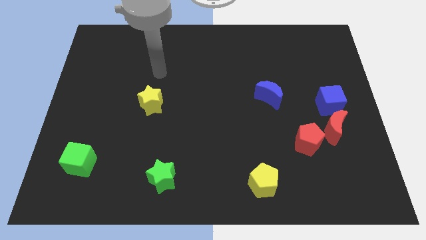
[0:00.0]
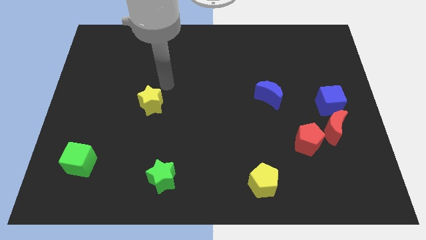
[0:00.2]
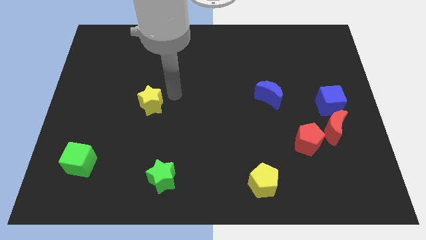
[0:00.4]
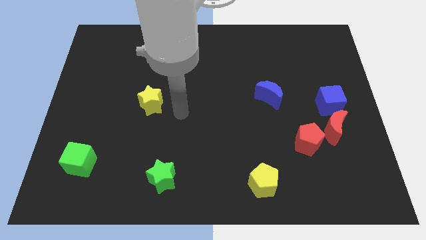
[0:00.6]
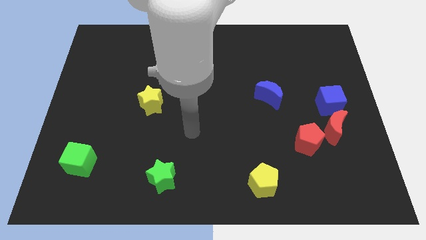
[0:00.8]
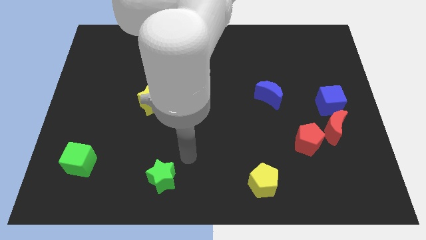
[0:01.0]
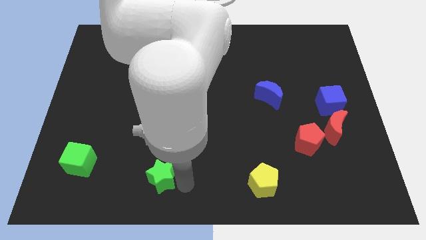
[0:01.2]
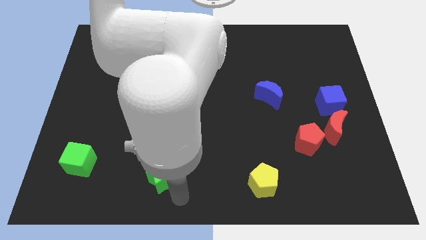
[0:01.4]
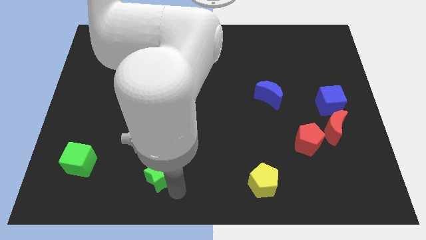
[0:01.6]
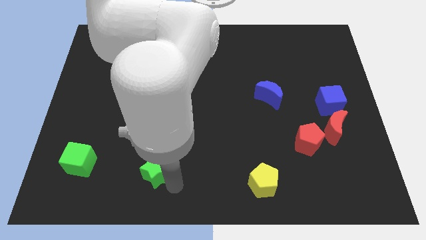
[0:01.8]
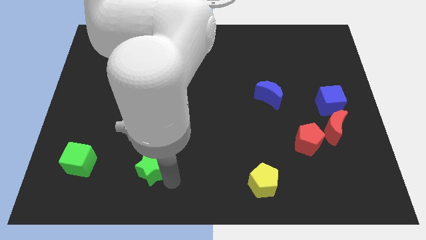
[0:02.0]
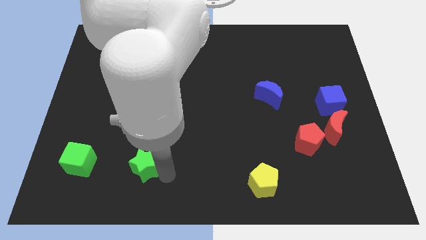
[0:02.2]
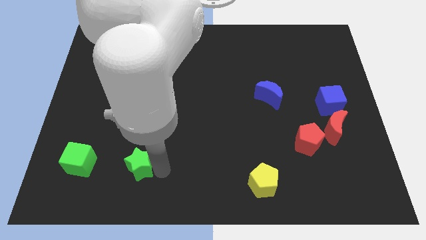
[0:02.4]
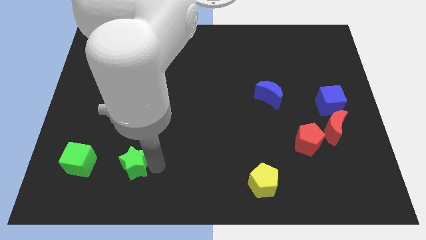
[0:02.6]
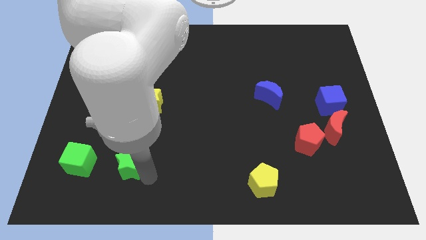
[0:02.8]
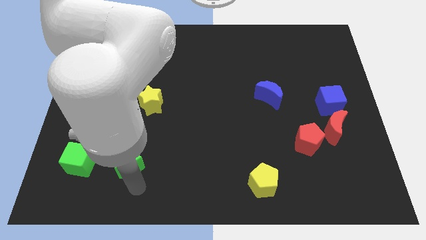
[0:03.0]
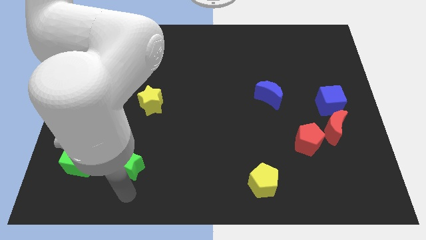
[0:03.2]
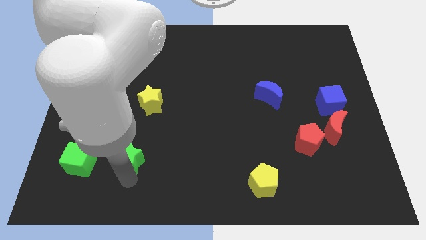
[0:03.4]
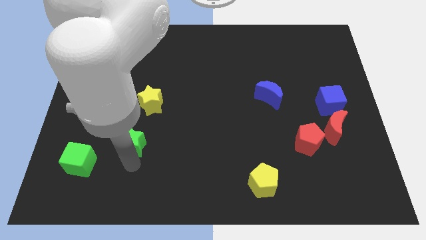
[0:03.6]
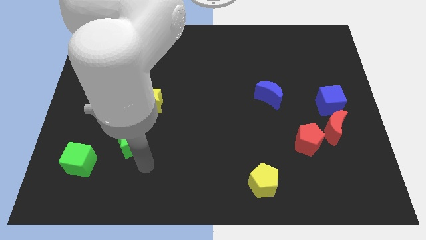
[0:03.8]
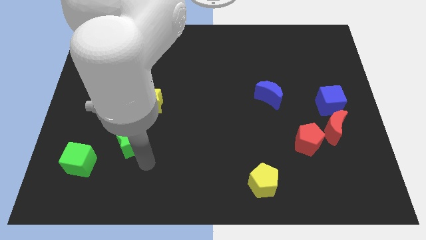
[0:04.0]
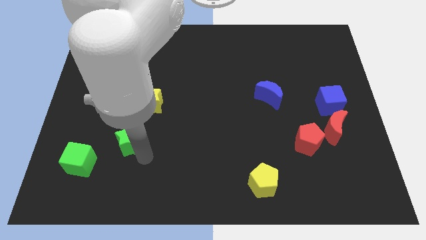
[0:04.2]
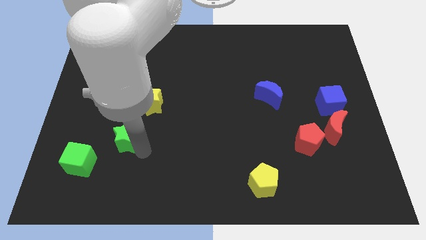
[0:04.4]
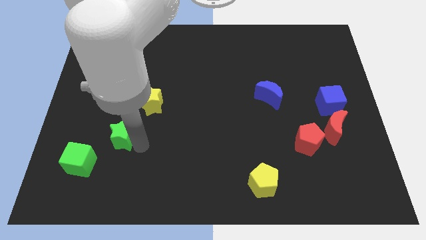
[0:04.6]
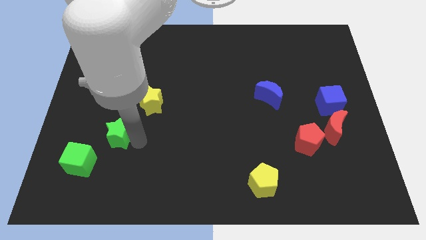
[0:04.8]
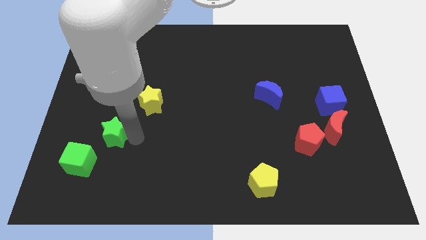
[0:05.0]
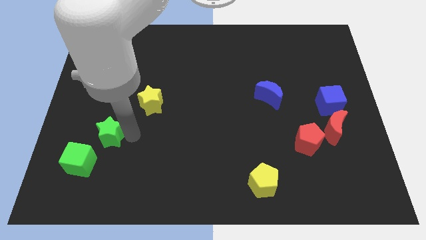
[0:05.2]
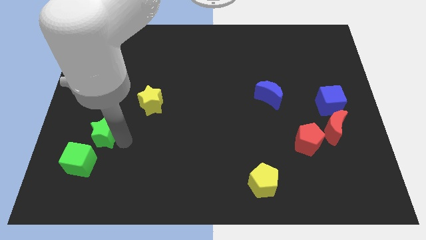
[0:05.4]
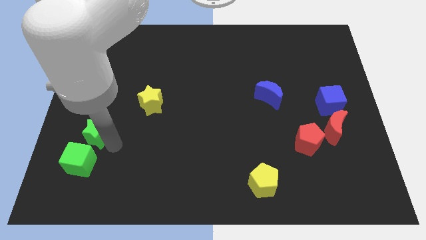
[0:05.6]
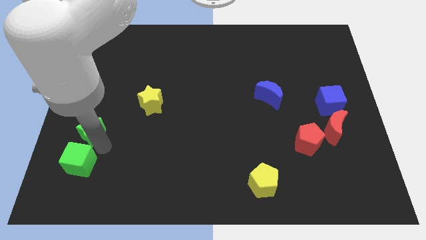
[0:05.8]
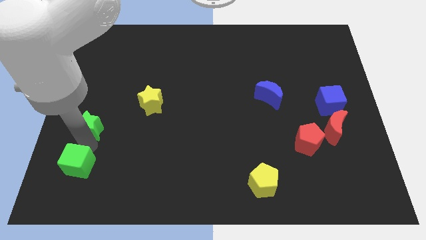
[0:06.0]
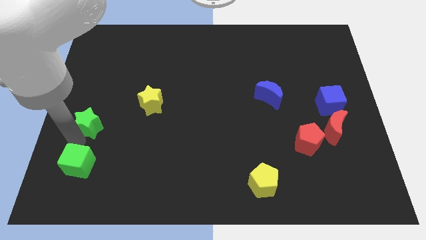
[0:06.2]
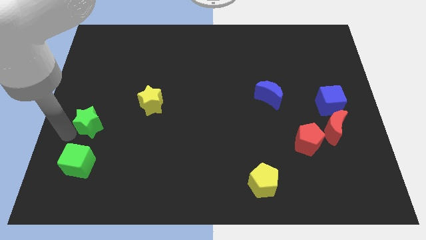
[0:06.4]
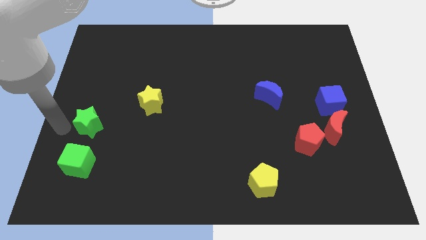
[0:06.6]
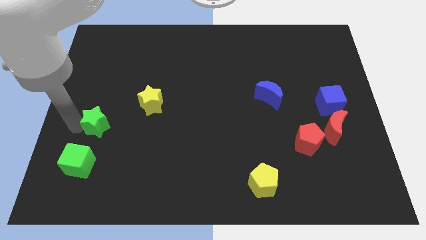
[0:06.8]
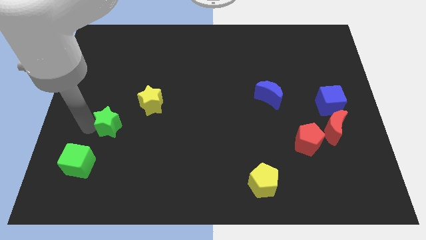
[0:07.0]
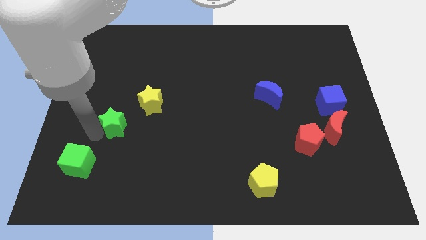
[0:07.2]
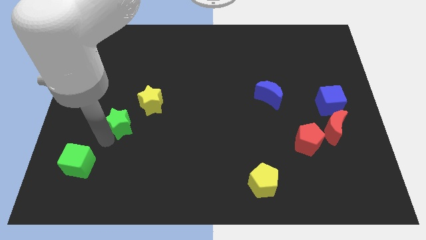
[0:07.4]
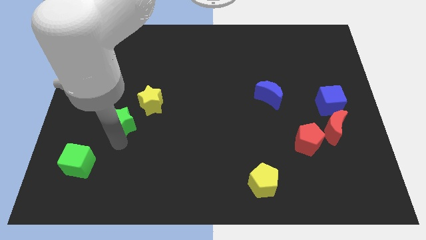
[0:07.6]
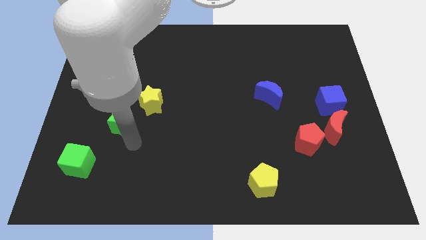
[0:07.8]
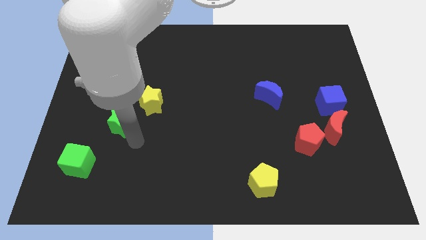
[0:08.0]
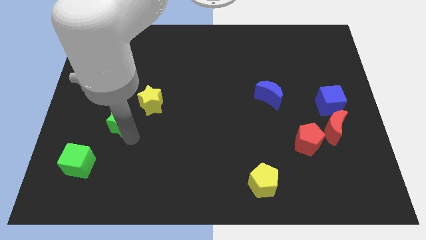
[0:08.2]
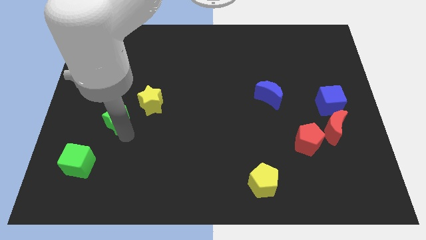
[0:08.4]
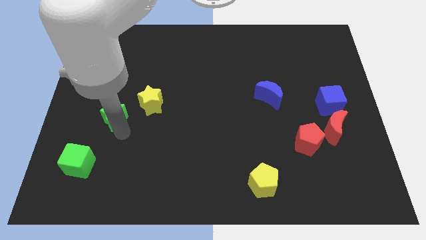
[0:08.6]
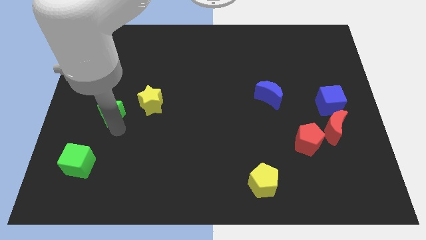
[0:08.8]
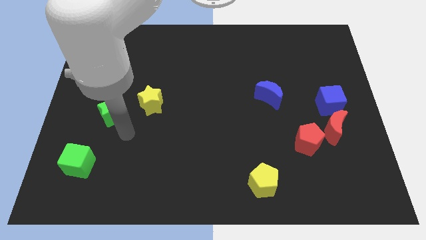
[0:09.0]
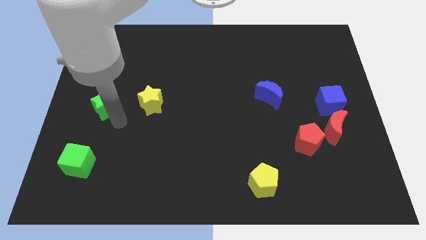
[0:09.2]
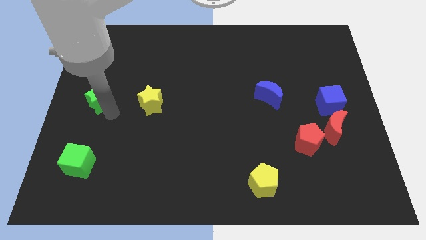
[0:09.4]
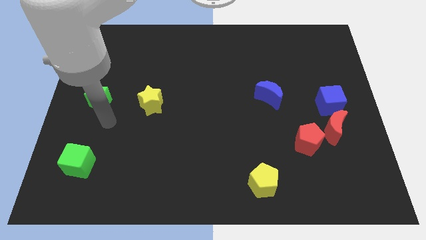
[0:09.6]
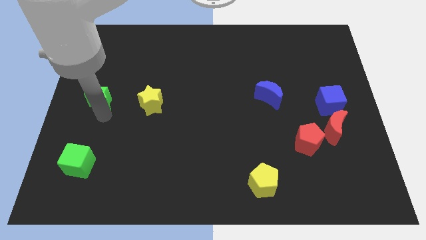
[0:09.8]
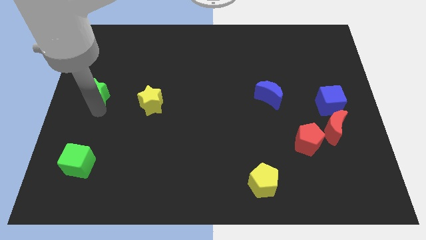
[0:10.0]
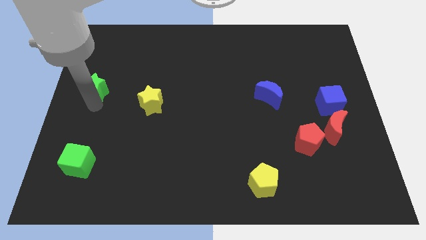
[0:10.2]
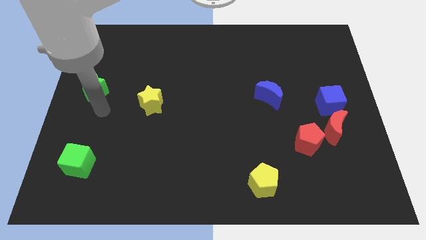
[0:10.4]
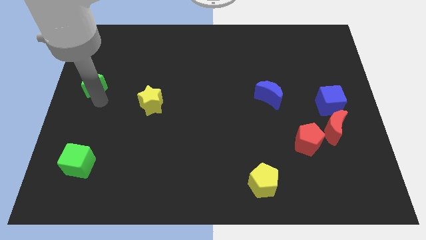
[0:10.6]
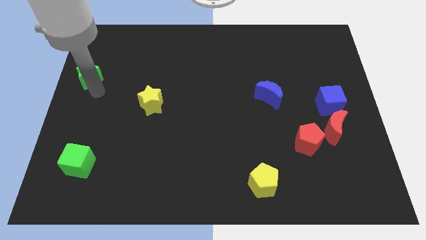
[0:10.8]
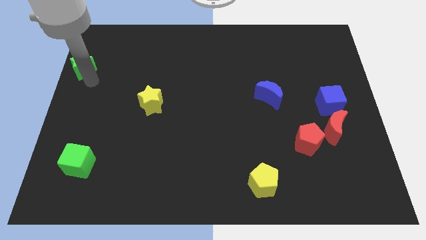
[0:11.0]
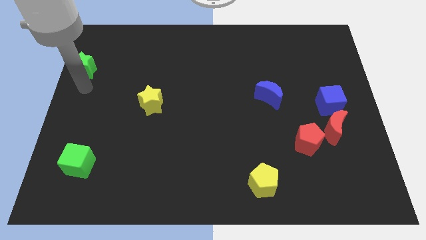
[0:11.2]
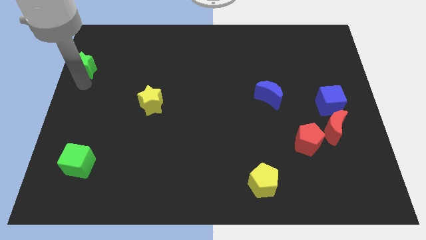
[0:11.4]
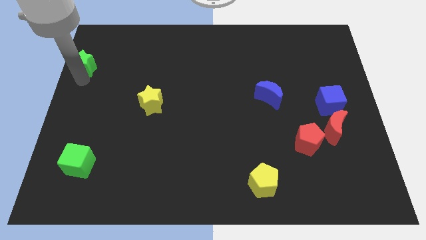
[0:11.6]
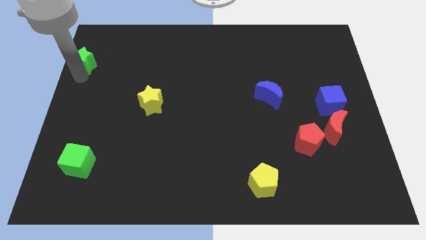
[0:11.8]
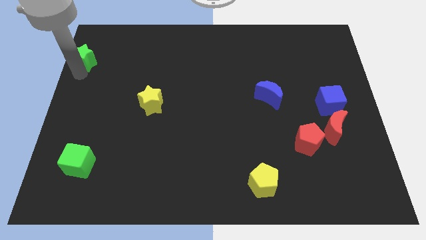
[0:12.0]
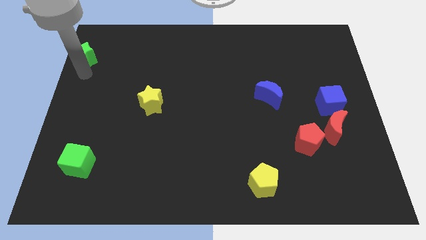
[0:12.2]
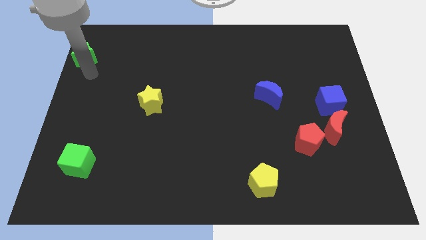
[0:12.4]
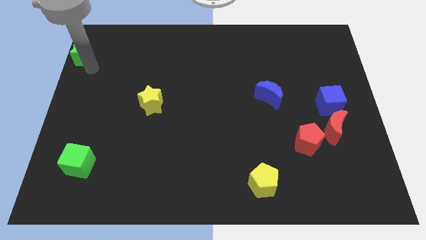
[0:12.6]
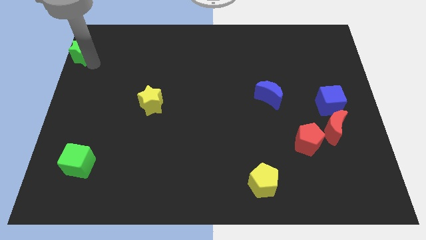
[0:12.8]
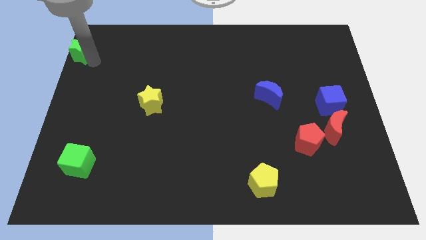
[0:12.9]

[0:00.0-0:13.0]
push the green star to the top left corner
